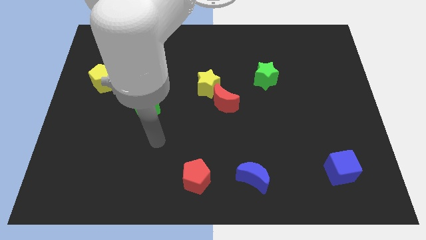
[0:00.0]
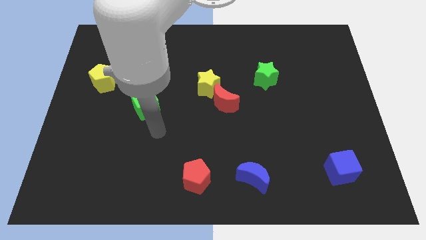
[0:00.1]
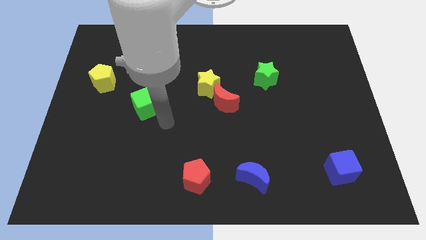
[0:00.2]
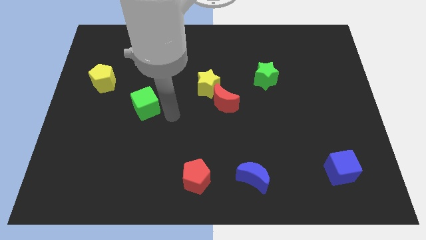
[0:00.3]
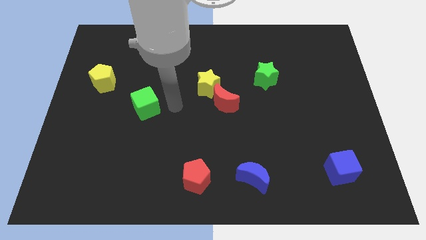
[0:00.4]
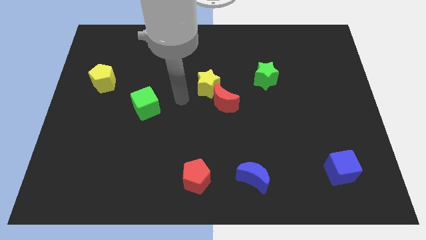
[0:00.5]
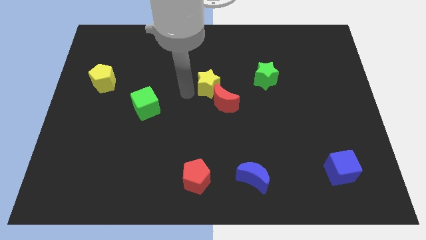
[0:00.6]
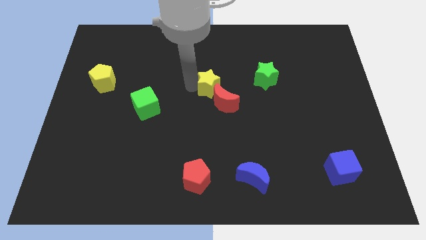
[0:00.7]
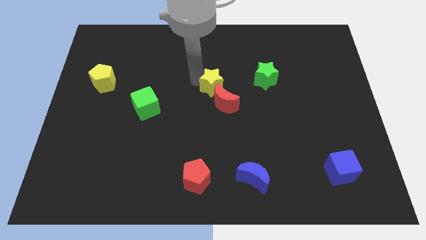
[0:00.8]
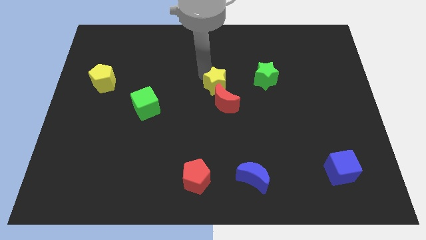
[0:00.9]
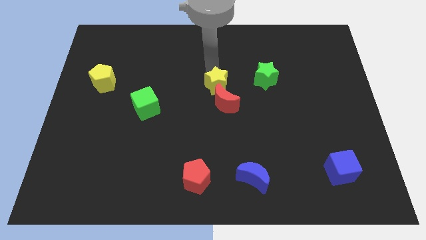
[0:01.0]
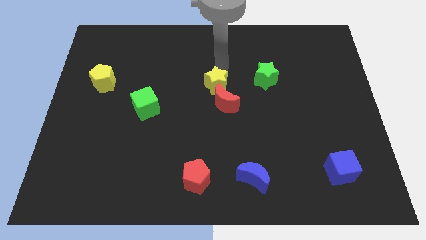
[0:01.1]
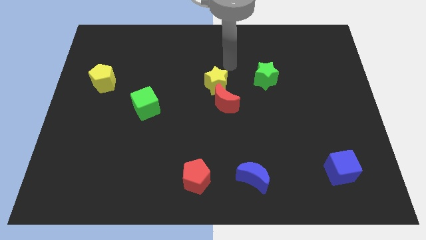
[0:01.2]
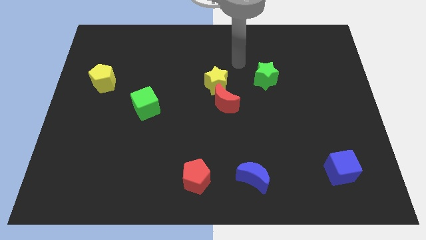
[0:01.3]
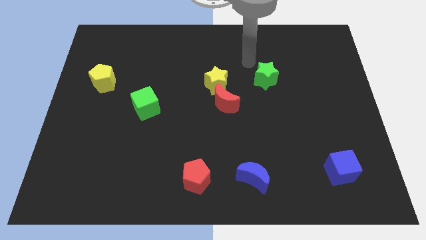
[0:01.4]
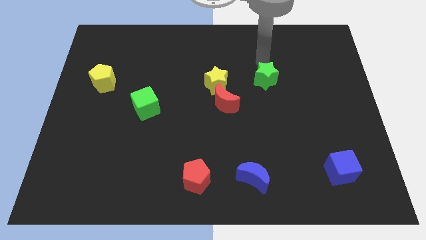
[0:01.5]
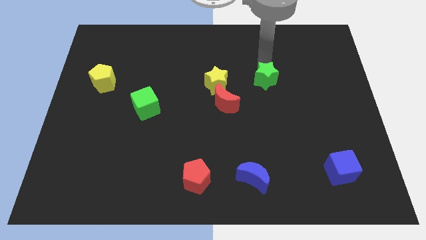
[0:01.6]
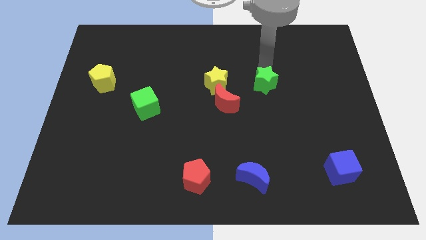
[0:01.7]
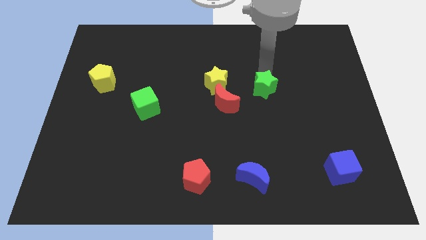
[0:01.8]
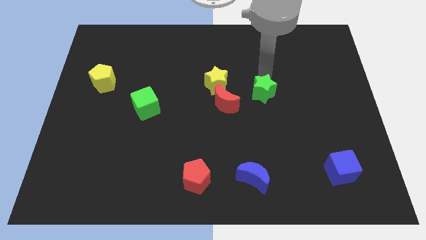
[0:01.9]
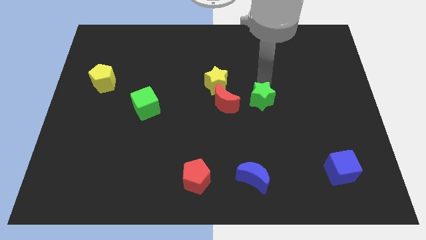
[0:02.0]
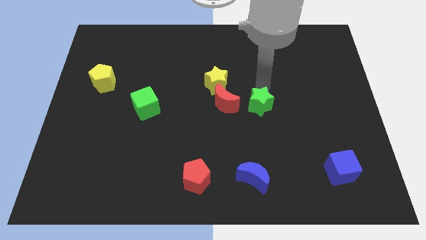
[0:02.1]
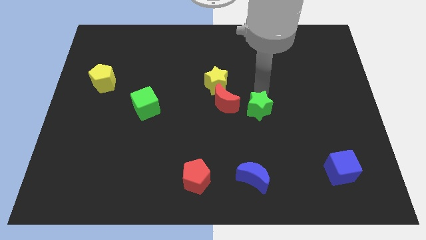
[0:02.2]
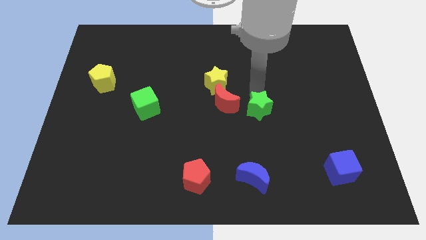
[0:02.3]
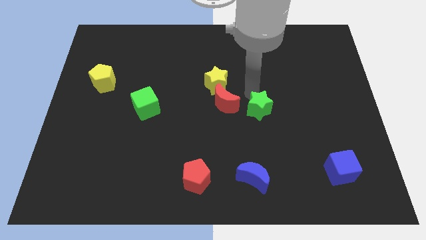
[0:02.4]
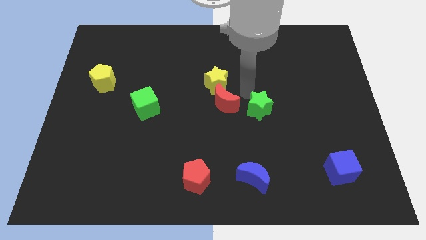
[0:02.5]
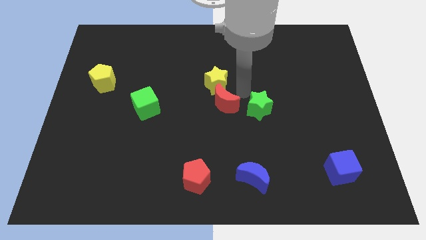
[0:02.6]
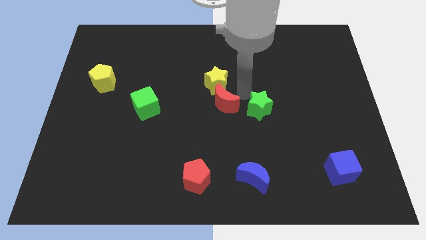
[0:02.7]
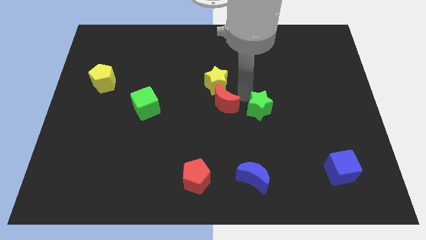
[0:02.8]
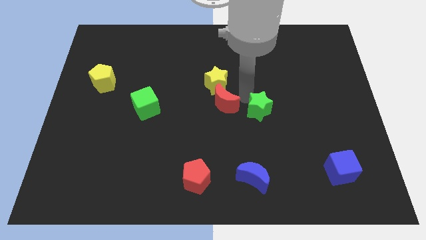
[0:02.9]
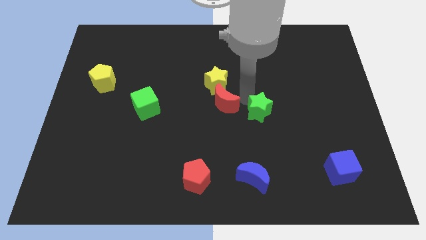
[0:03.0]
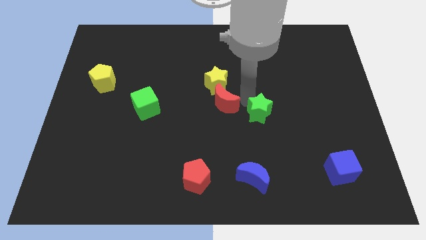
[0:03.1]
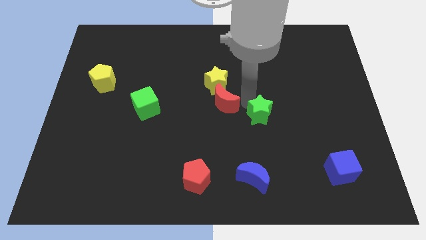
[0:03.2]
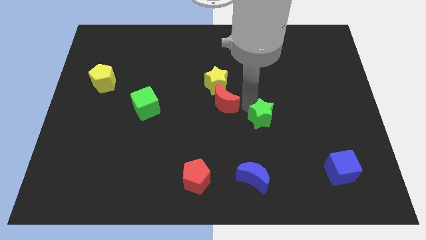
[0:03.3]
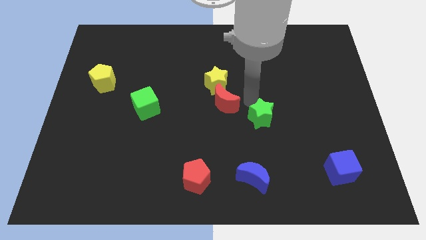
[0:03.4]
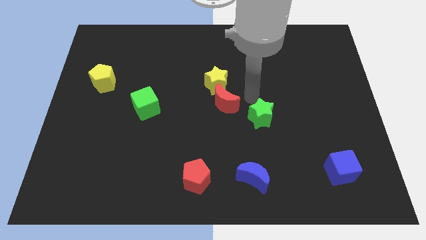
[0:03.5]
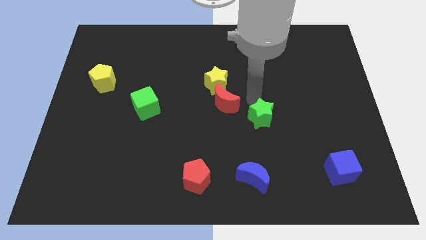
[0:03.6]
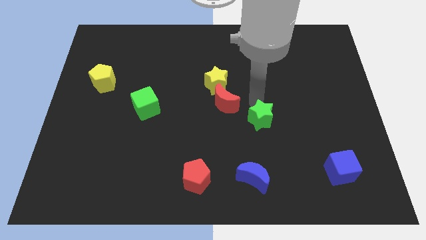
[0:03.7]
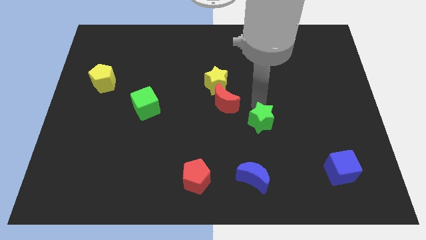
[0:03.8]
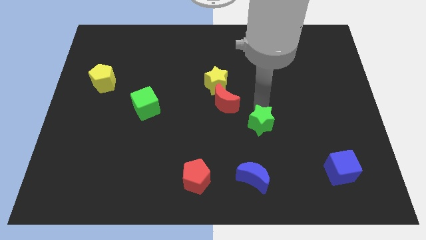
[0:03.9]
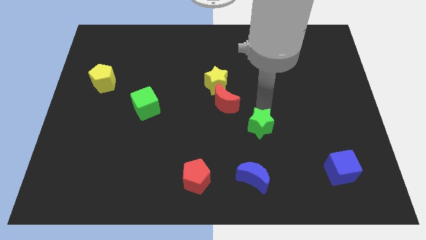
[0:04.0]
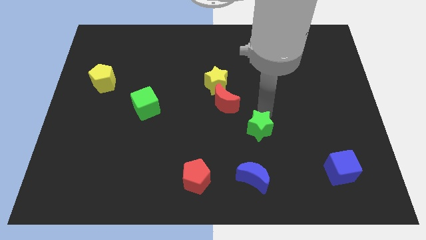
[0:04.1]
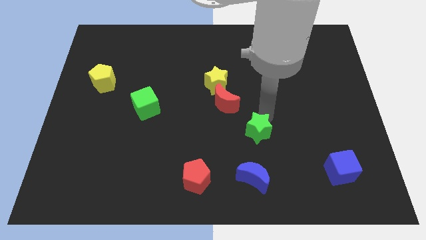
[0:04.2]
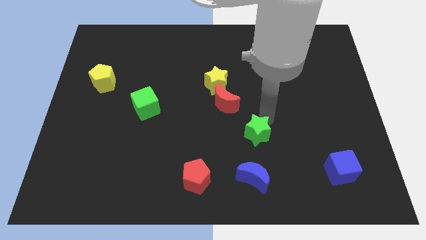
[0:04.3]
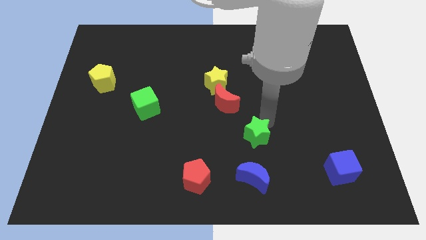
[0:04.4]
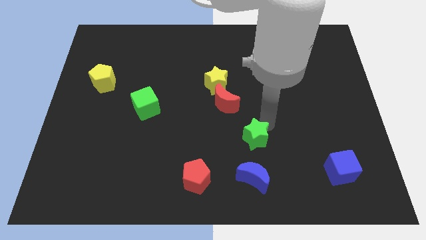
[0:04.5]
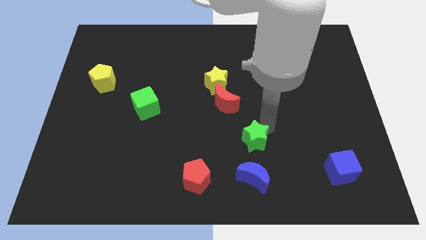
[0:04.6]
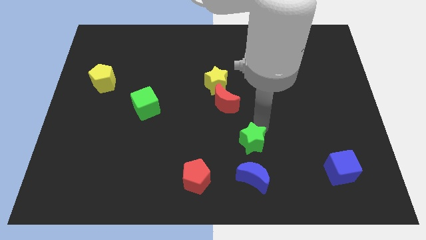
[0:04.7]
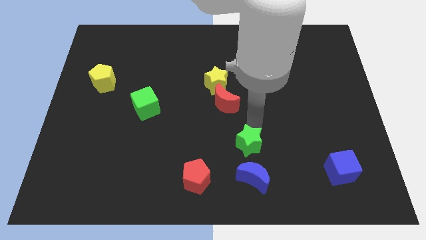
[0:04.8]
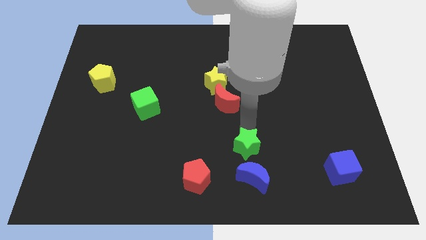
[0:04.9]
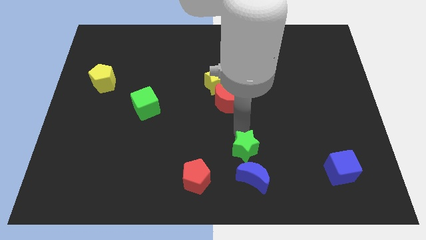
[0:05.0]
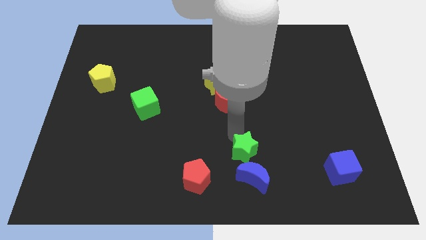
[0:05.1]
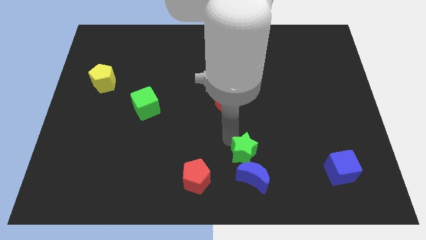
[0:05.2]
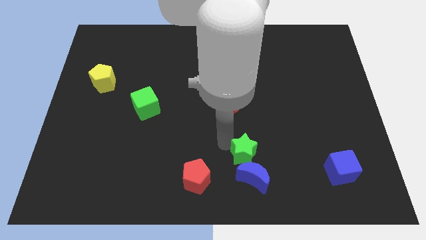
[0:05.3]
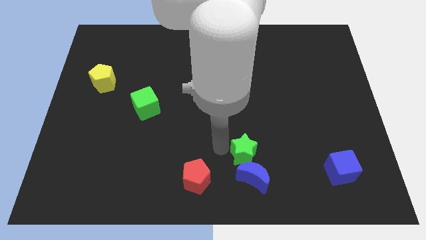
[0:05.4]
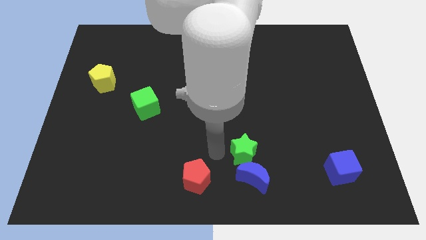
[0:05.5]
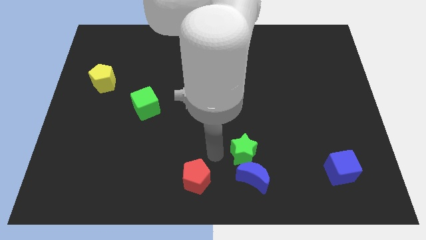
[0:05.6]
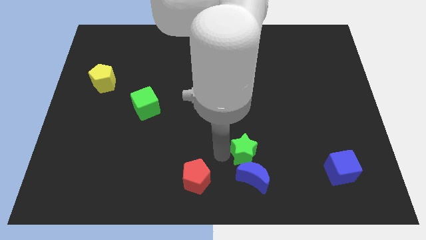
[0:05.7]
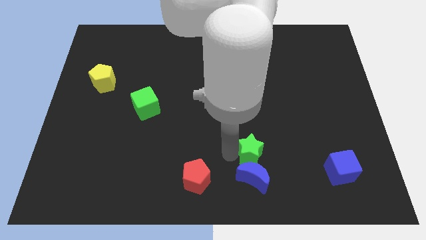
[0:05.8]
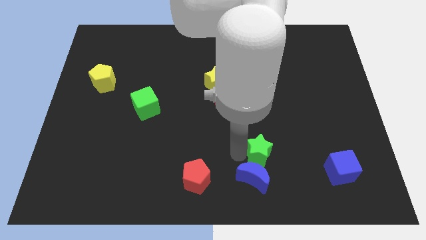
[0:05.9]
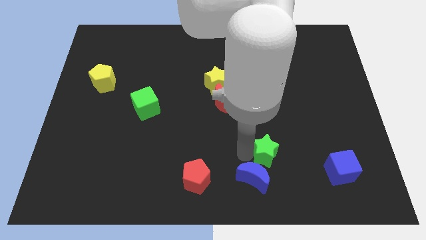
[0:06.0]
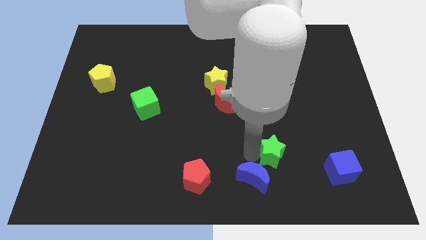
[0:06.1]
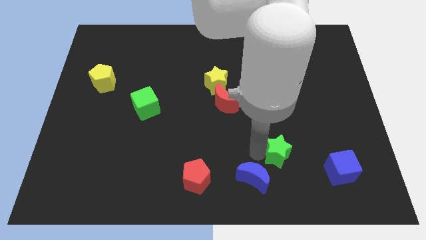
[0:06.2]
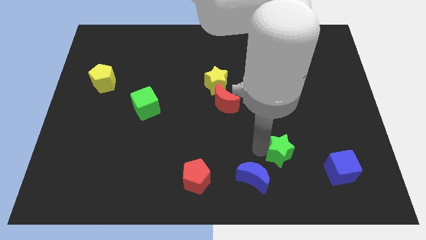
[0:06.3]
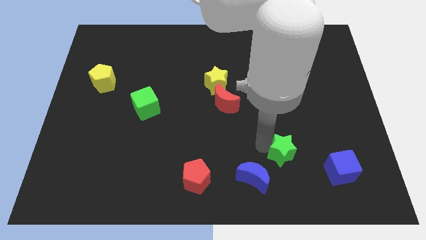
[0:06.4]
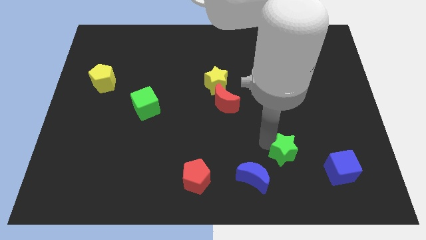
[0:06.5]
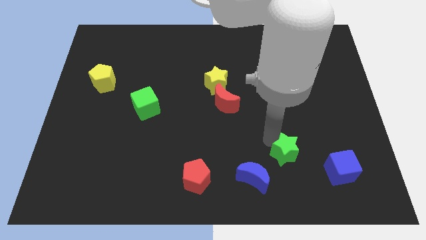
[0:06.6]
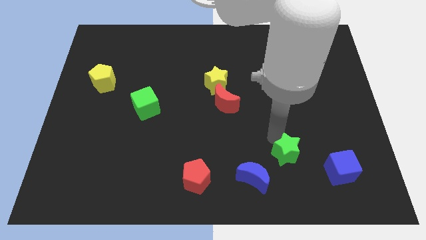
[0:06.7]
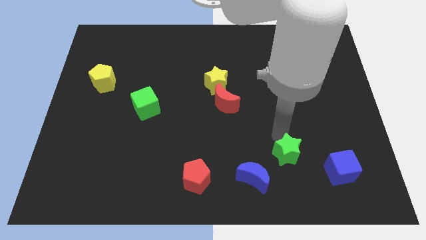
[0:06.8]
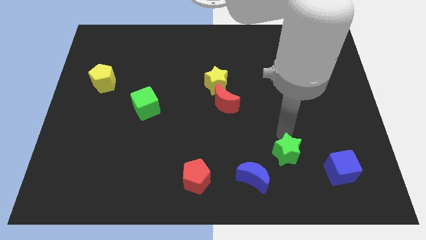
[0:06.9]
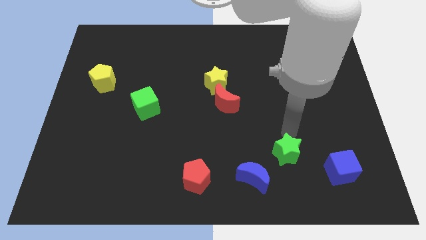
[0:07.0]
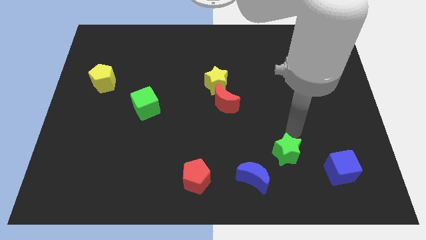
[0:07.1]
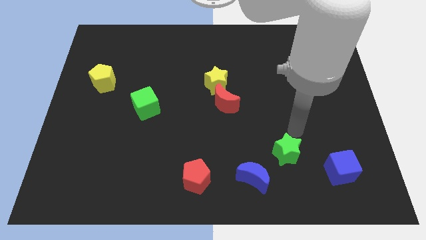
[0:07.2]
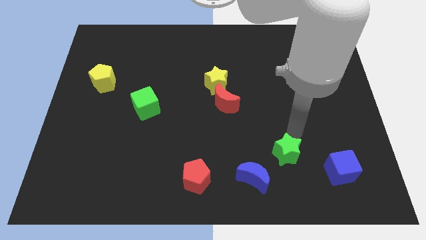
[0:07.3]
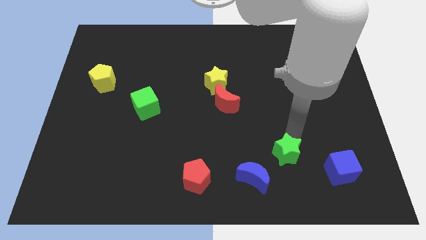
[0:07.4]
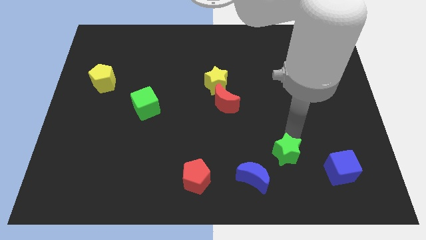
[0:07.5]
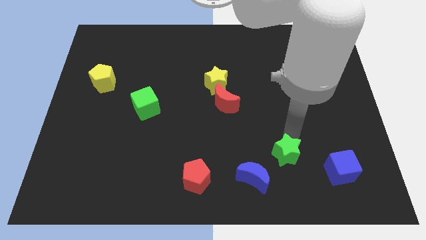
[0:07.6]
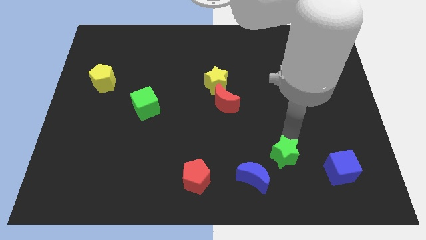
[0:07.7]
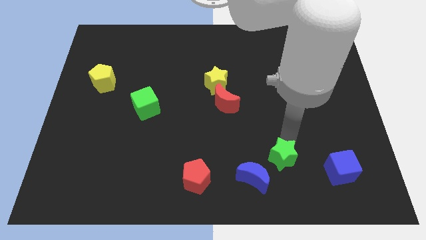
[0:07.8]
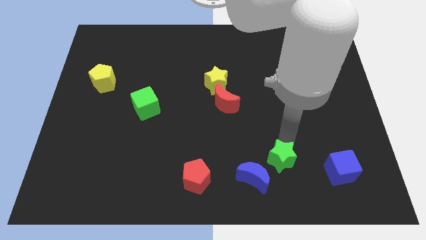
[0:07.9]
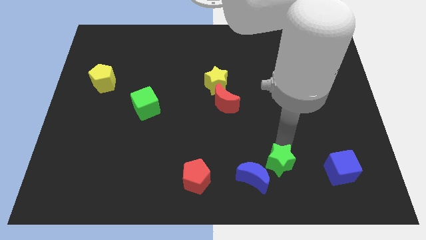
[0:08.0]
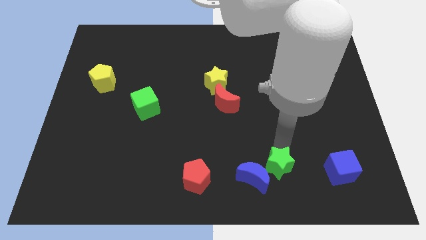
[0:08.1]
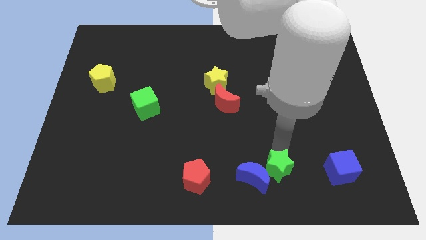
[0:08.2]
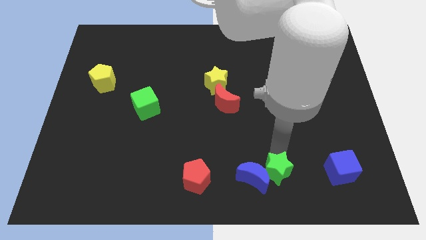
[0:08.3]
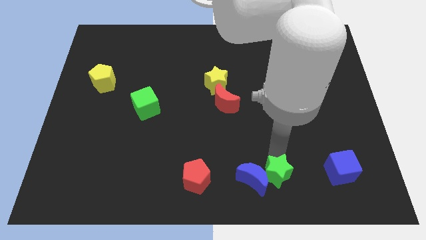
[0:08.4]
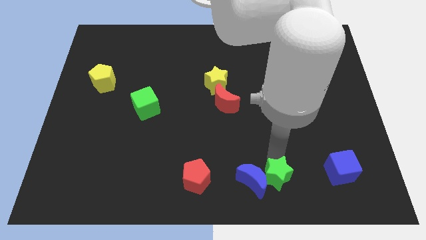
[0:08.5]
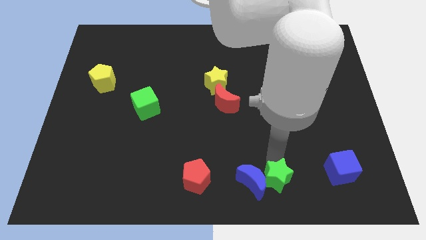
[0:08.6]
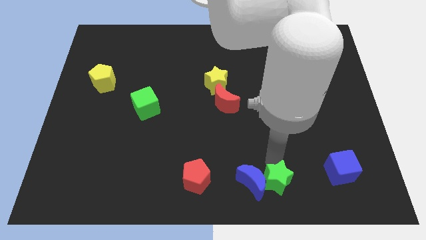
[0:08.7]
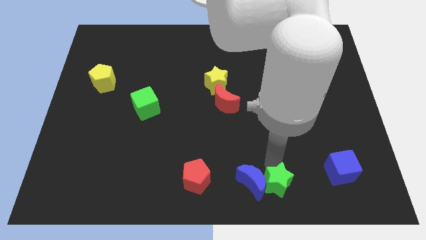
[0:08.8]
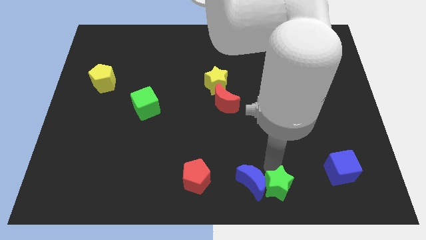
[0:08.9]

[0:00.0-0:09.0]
move the green star to the bottom side
